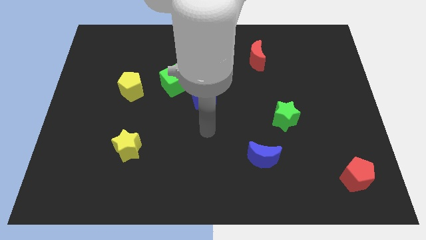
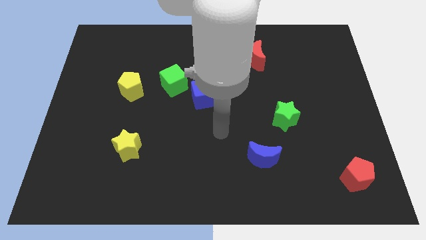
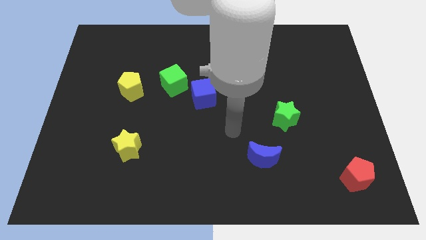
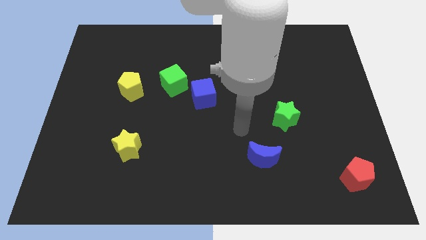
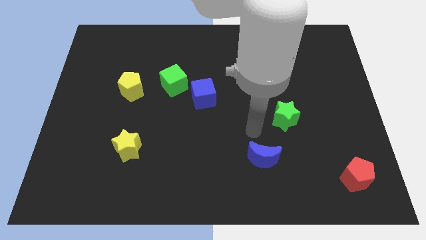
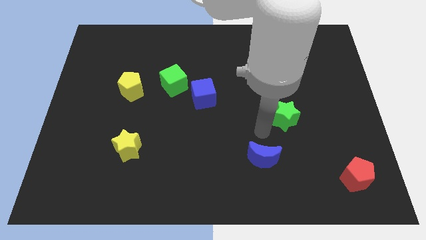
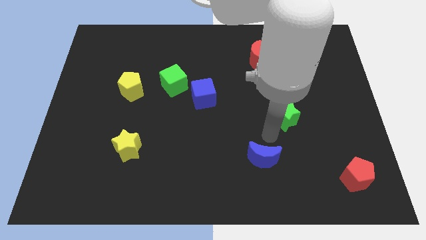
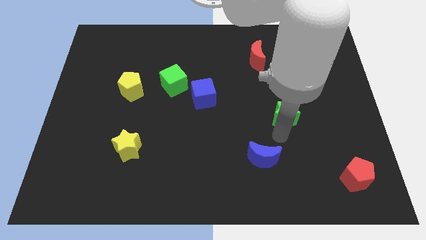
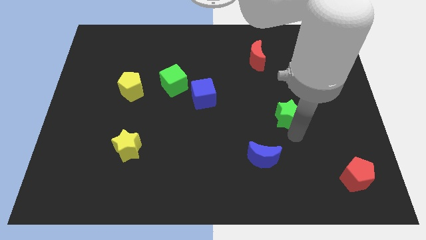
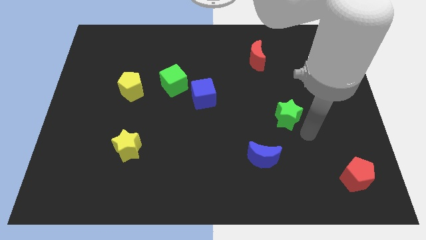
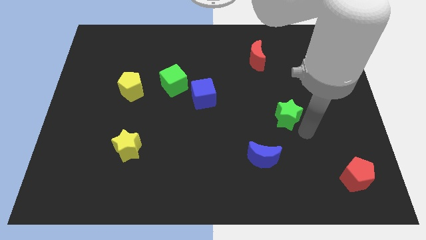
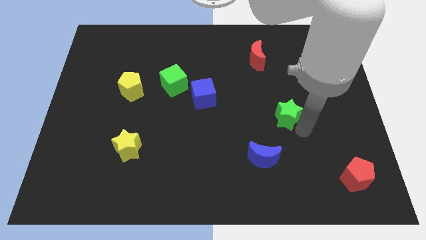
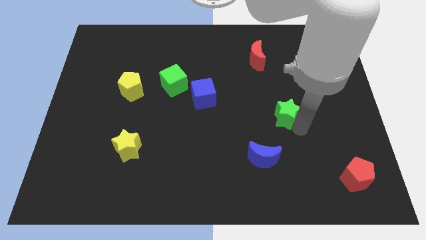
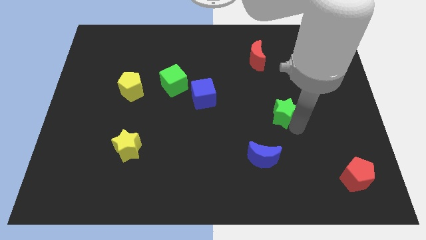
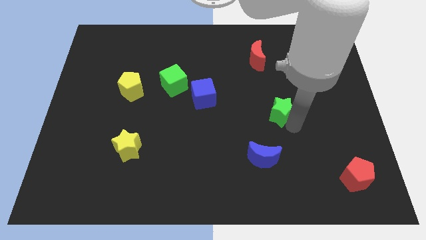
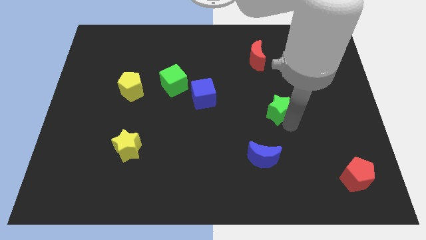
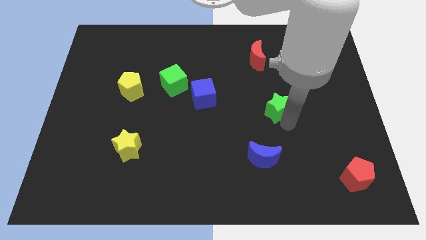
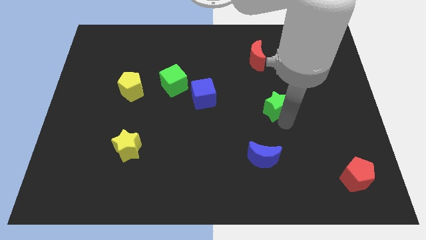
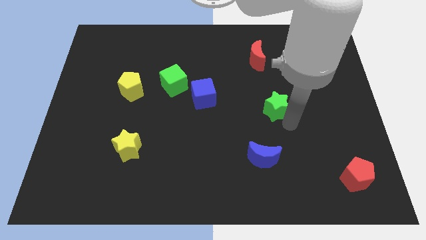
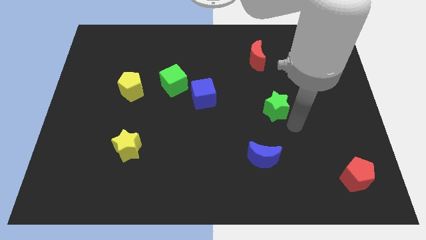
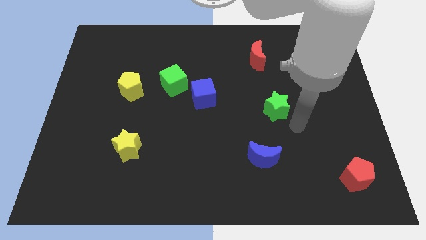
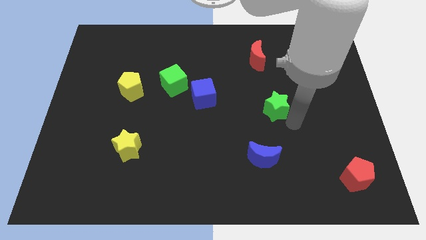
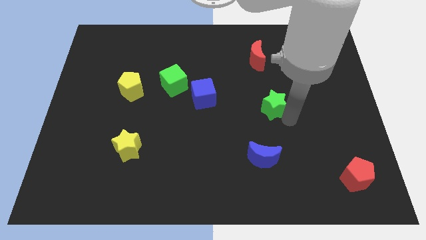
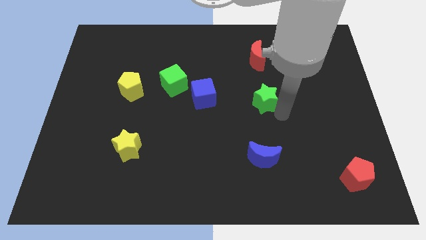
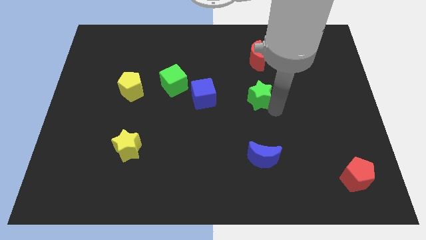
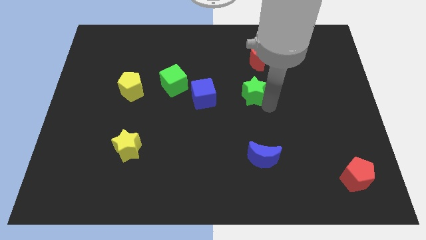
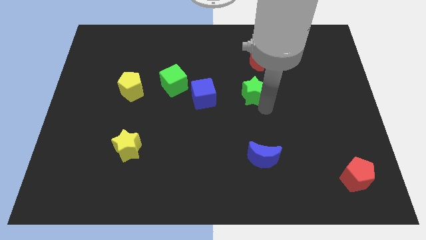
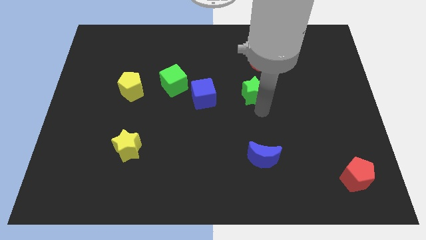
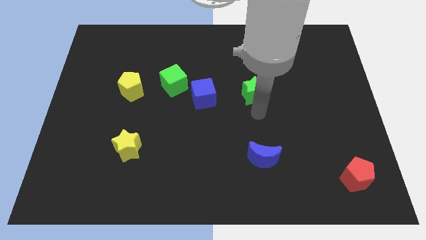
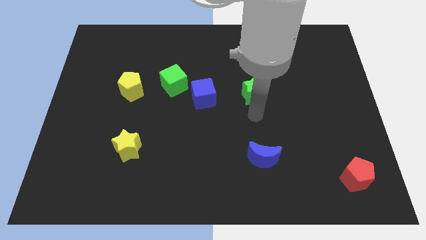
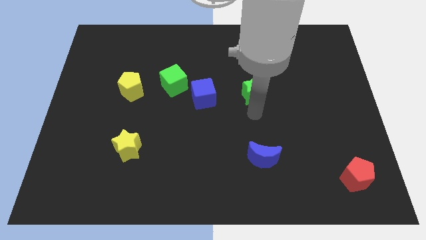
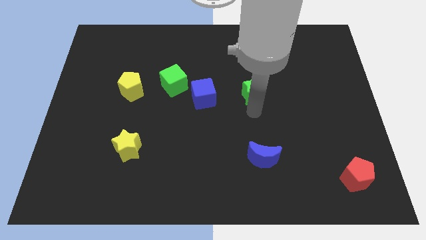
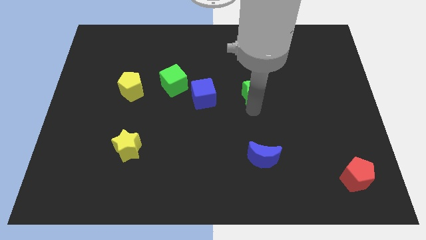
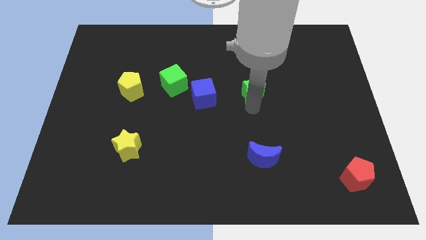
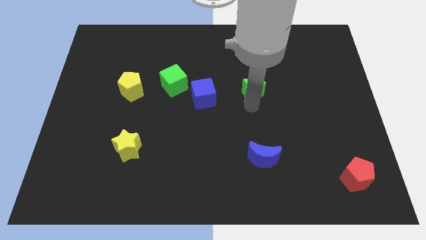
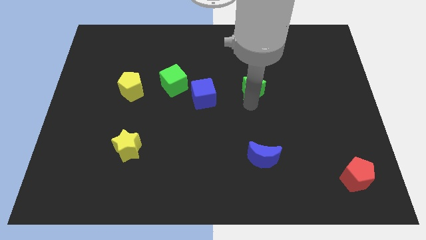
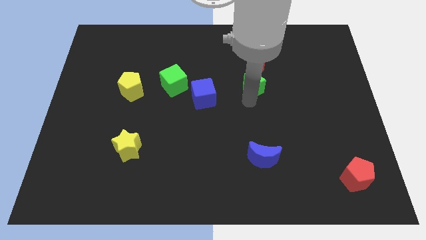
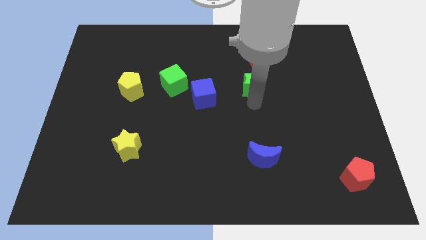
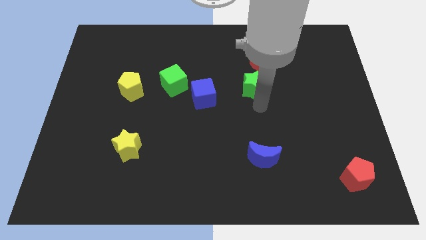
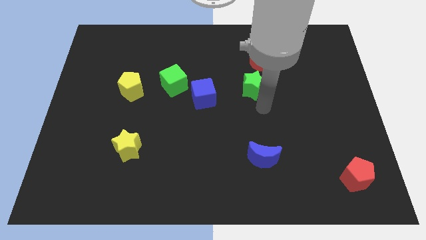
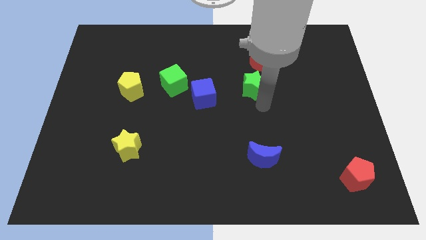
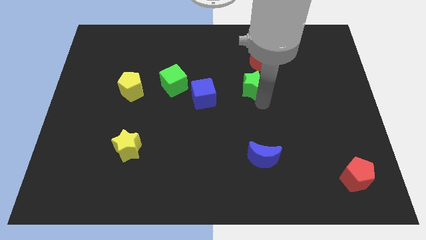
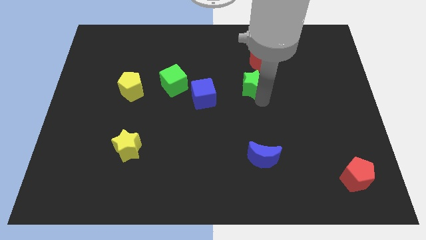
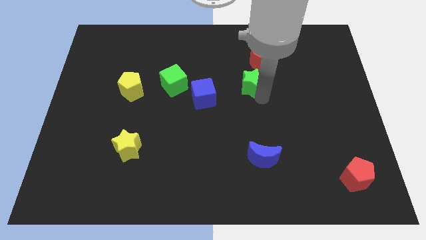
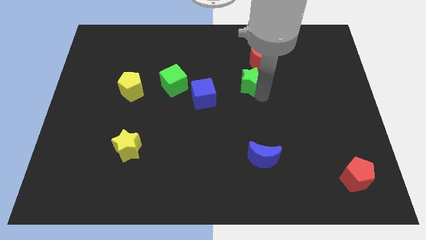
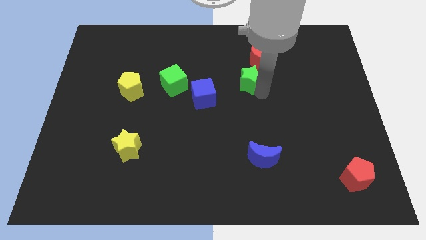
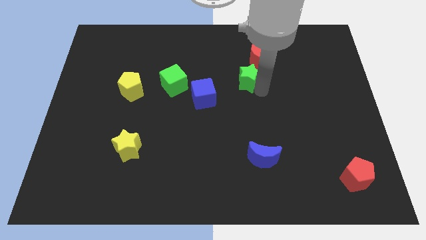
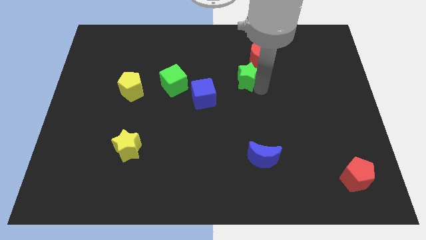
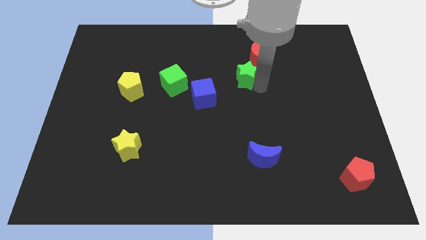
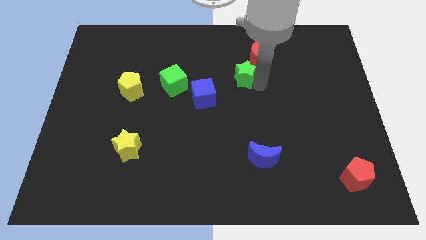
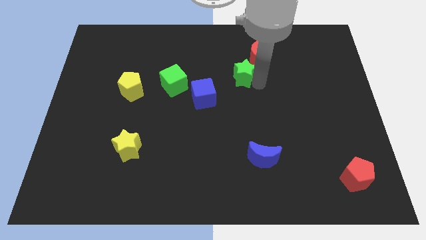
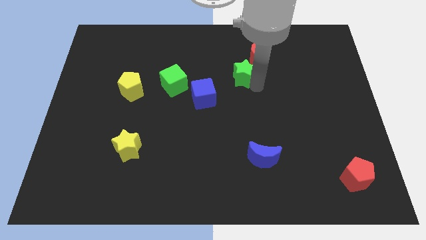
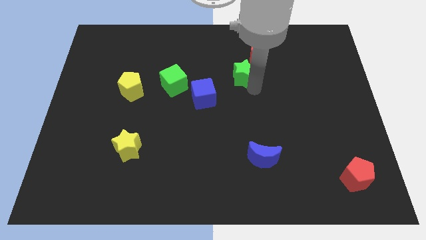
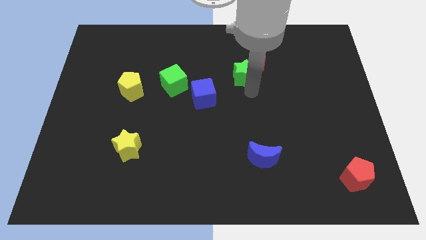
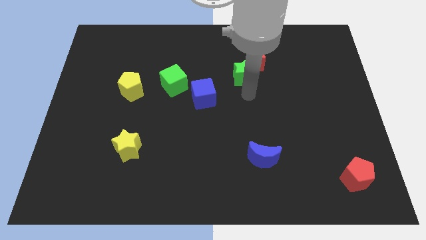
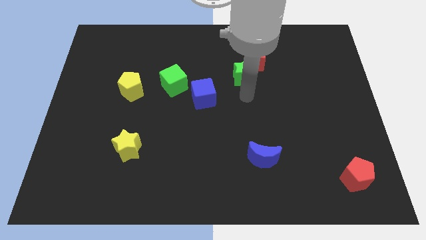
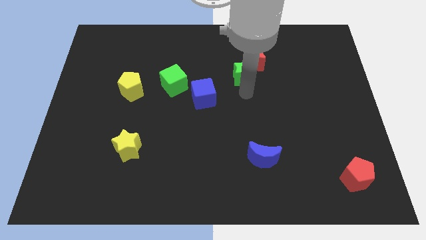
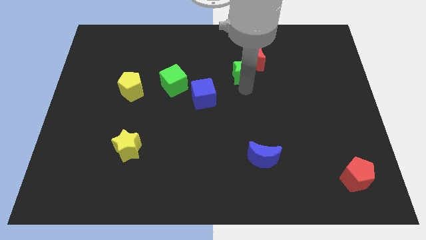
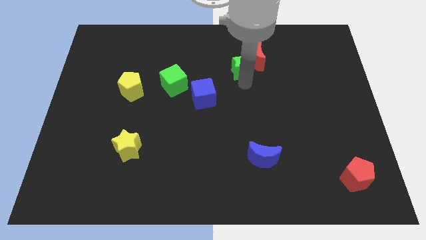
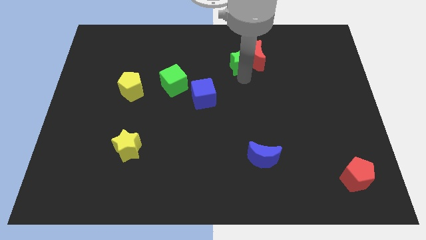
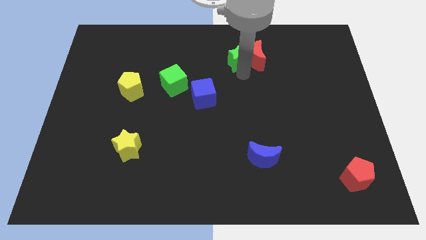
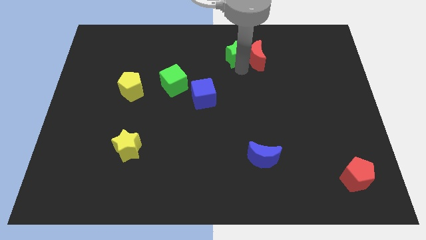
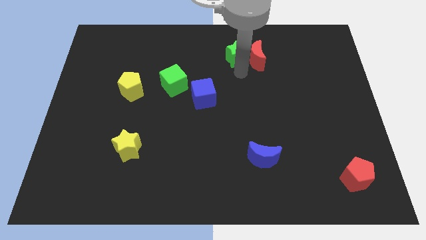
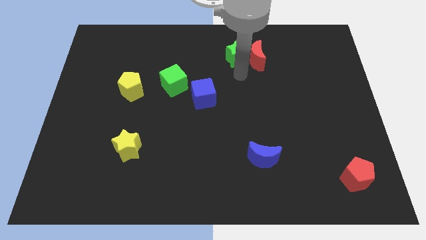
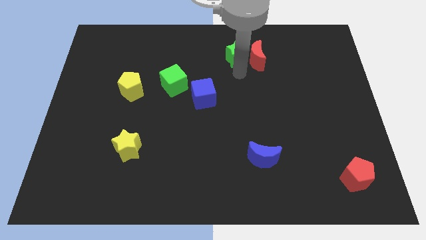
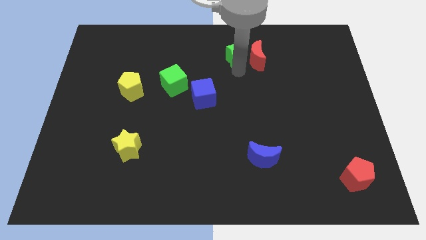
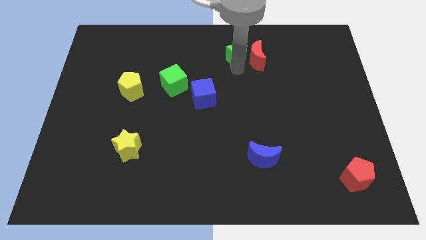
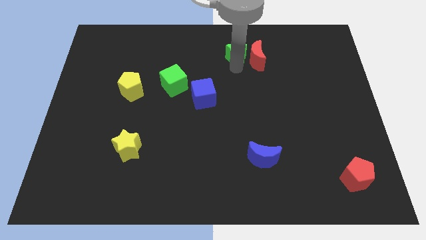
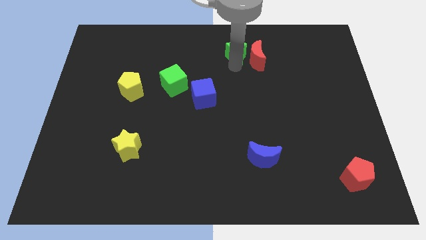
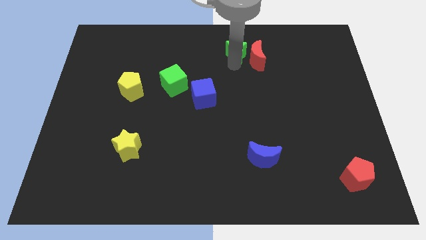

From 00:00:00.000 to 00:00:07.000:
slide the green star to the top side
